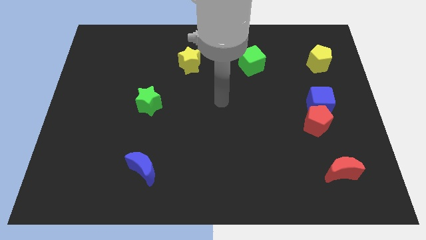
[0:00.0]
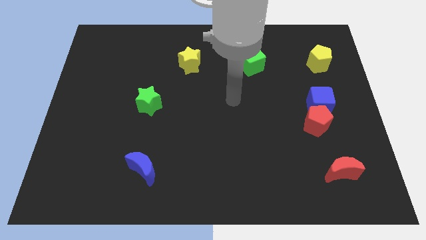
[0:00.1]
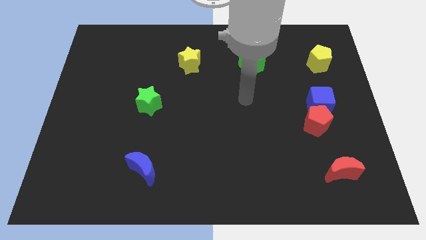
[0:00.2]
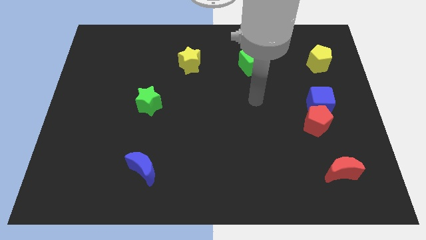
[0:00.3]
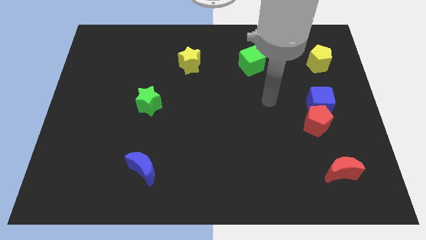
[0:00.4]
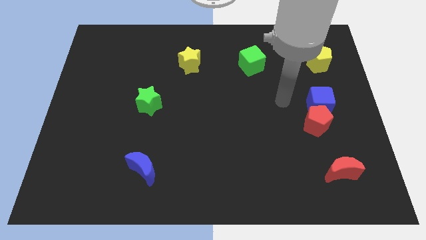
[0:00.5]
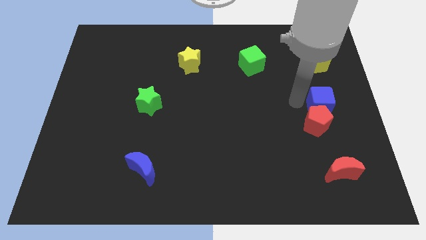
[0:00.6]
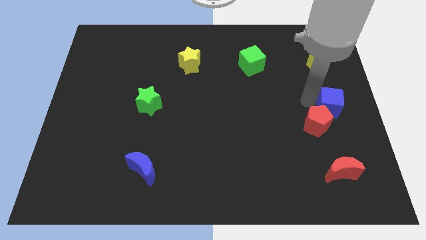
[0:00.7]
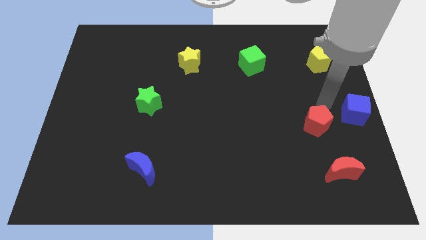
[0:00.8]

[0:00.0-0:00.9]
pull the red pentagon apart from the blue cube

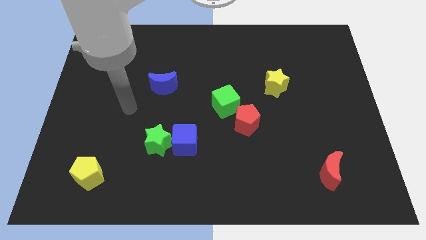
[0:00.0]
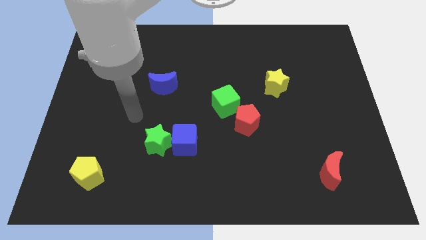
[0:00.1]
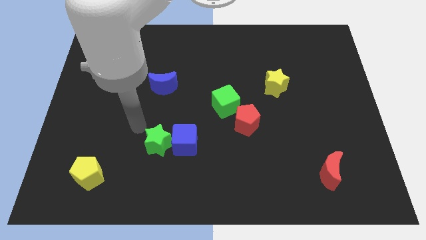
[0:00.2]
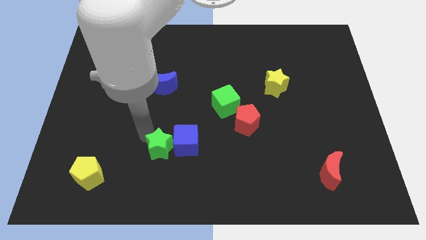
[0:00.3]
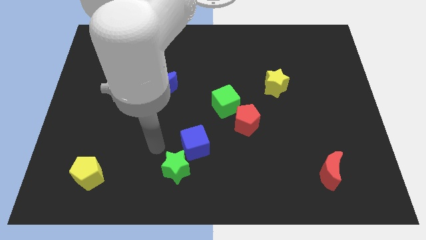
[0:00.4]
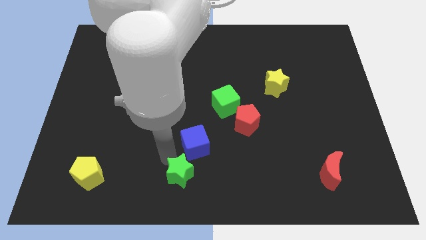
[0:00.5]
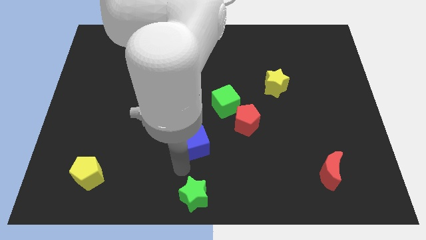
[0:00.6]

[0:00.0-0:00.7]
move the blue cube away from the green star

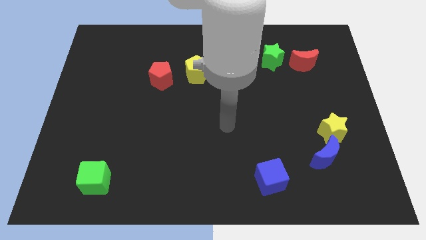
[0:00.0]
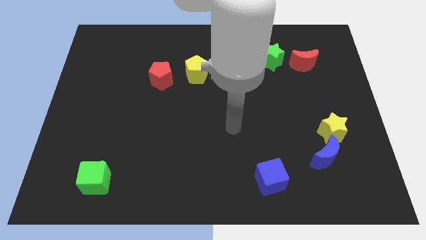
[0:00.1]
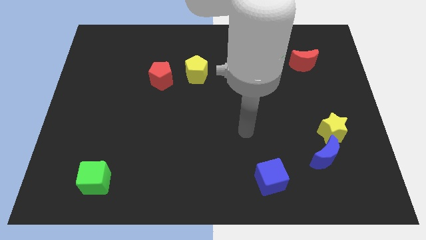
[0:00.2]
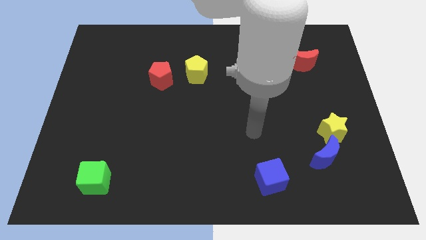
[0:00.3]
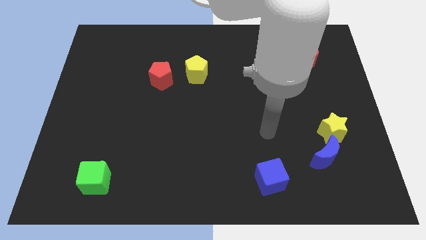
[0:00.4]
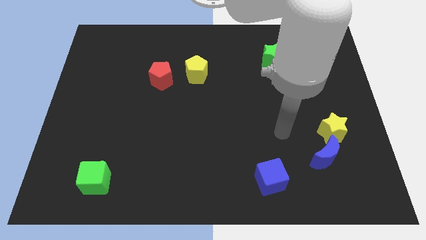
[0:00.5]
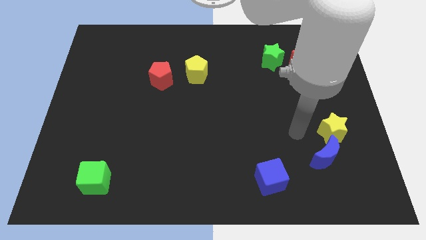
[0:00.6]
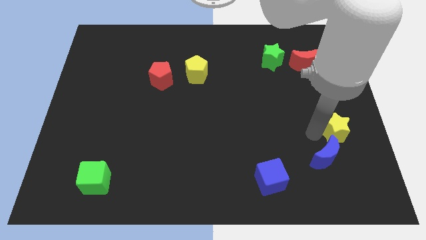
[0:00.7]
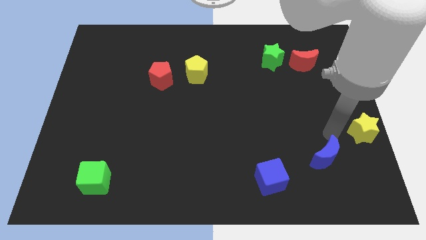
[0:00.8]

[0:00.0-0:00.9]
pull the blue moon apart from the yellow star

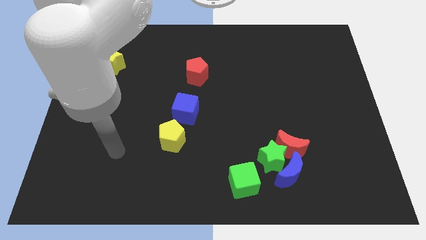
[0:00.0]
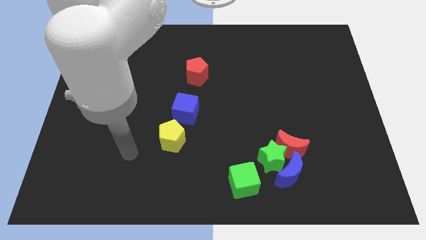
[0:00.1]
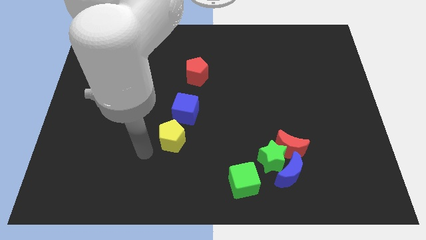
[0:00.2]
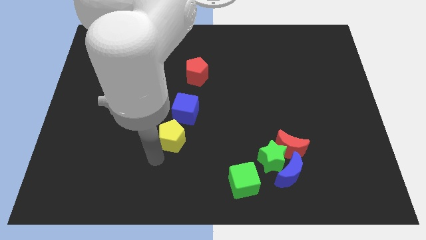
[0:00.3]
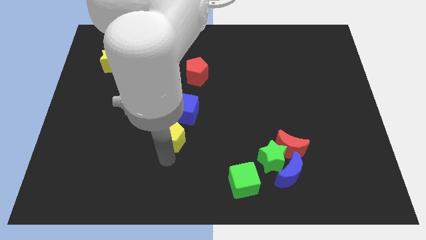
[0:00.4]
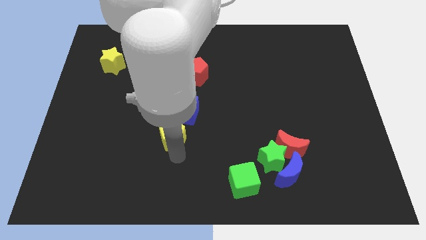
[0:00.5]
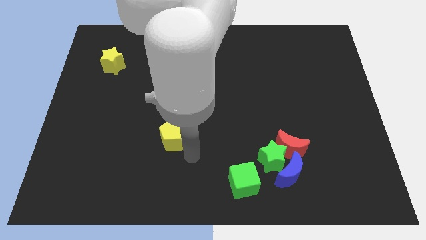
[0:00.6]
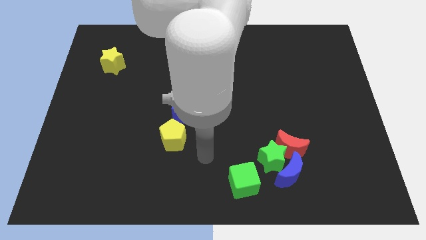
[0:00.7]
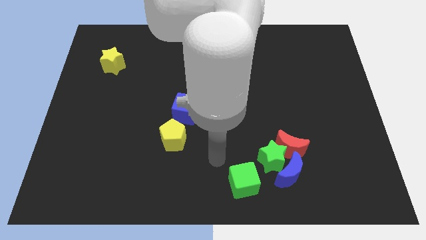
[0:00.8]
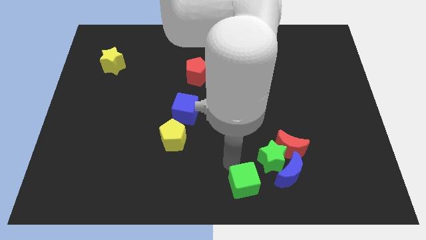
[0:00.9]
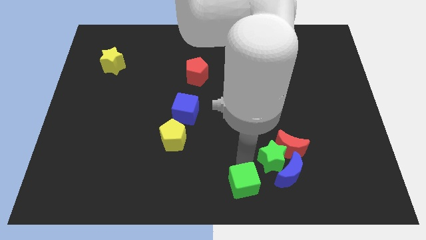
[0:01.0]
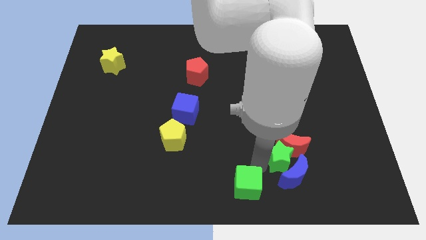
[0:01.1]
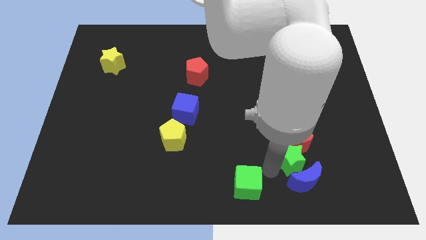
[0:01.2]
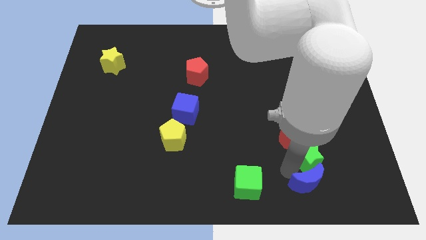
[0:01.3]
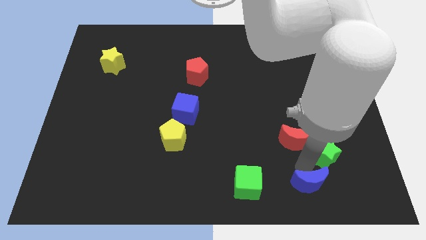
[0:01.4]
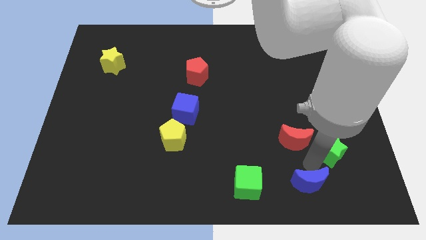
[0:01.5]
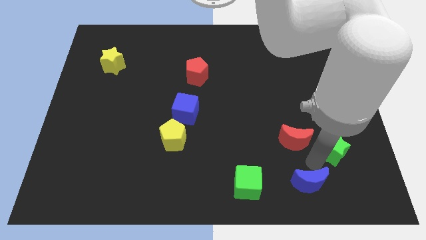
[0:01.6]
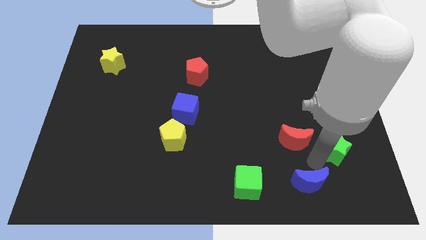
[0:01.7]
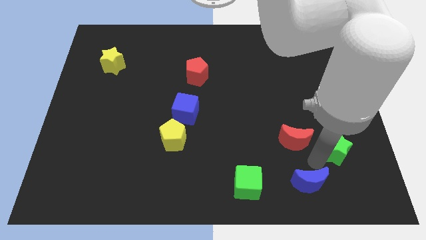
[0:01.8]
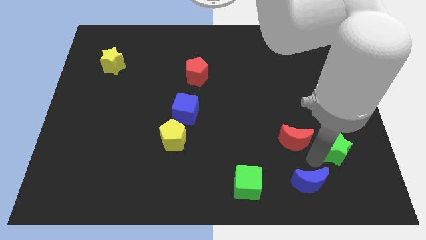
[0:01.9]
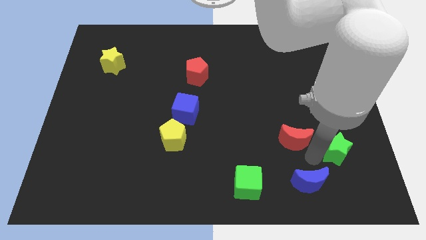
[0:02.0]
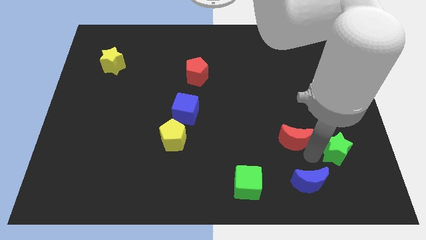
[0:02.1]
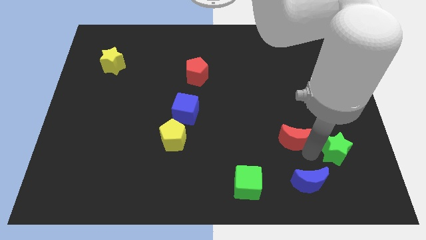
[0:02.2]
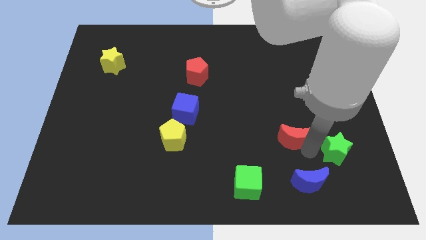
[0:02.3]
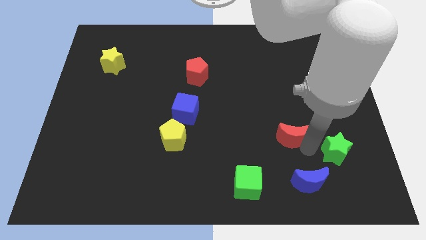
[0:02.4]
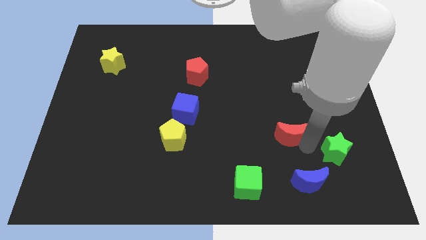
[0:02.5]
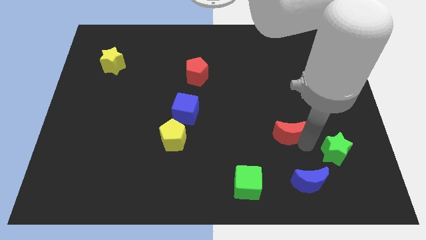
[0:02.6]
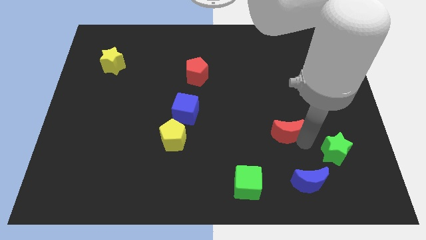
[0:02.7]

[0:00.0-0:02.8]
separate the red moon from the green star and blue moon

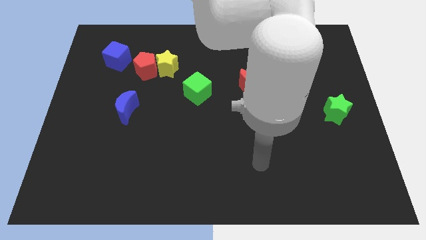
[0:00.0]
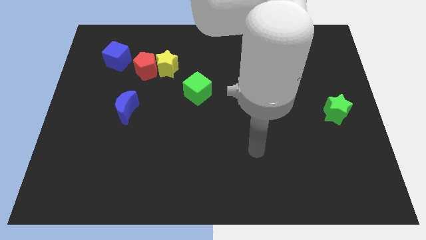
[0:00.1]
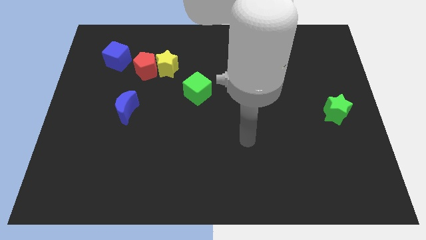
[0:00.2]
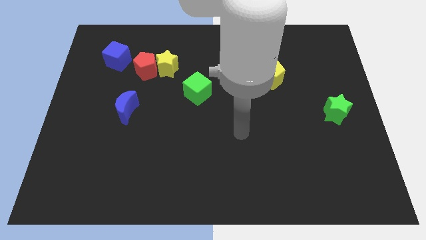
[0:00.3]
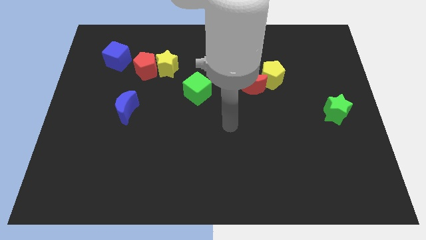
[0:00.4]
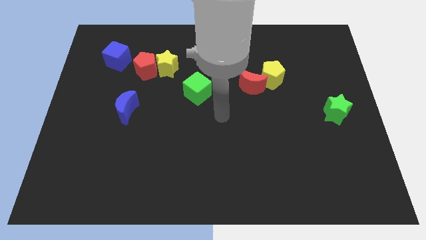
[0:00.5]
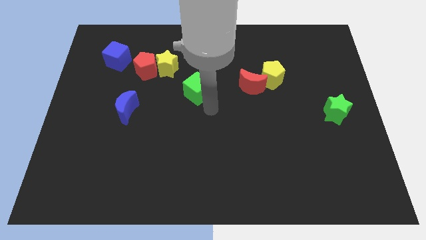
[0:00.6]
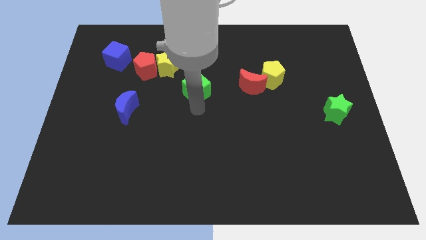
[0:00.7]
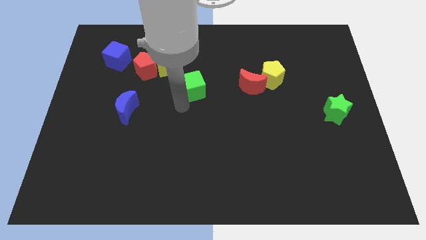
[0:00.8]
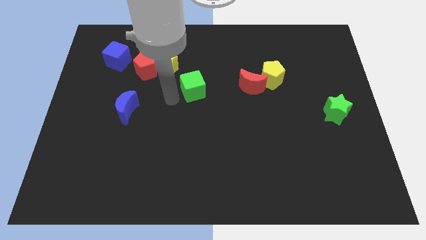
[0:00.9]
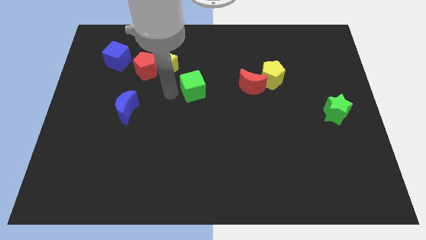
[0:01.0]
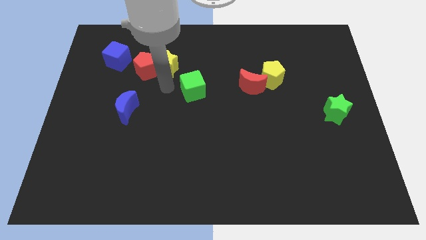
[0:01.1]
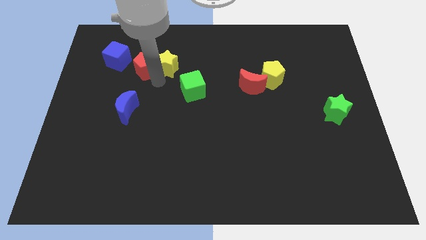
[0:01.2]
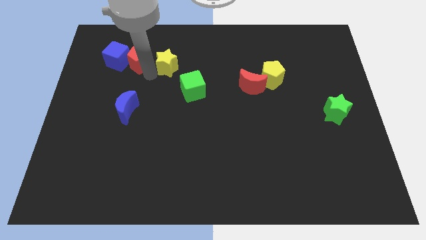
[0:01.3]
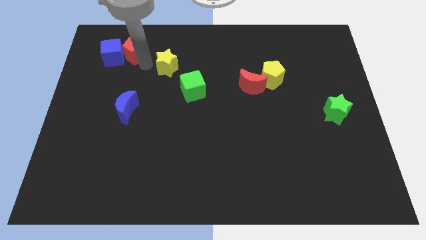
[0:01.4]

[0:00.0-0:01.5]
separate the yellow star from the red pentagon

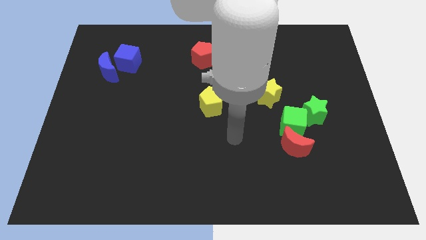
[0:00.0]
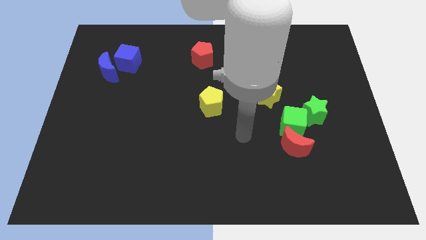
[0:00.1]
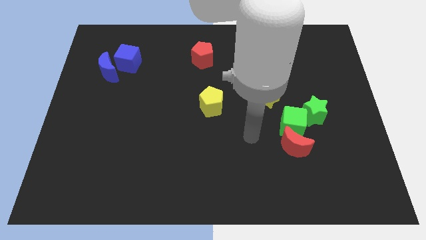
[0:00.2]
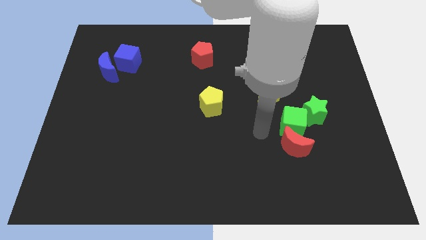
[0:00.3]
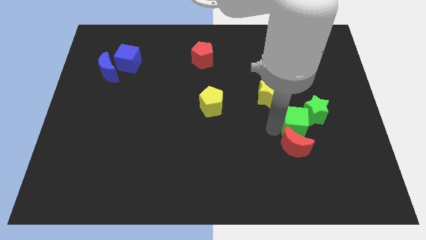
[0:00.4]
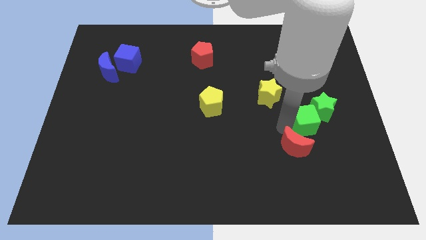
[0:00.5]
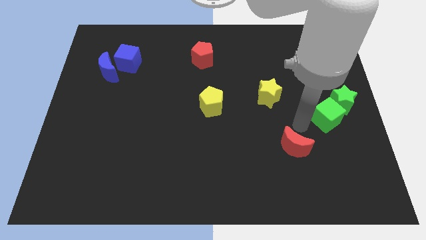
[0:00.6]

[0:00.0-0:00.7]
move the red moon away from the green cube

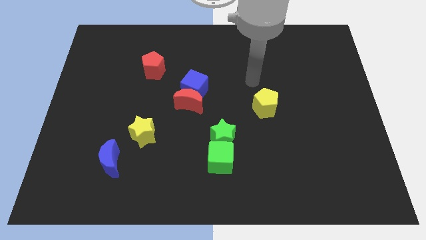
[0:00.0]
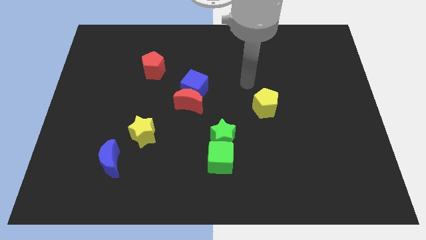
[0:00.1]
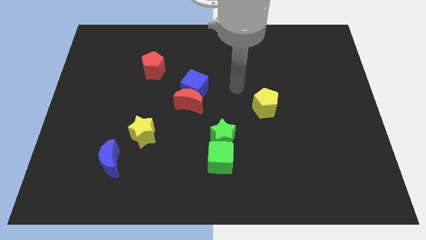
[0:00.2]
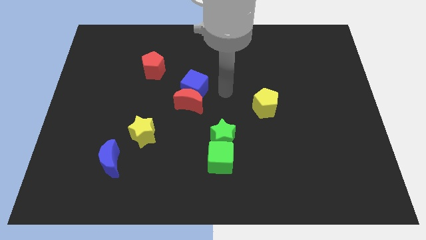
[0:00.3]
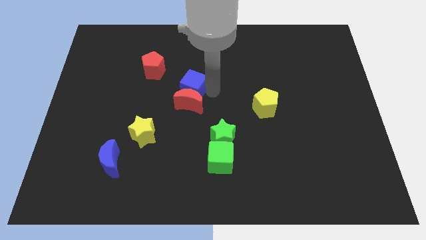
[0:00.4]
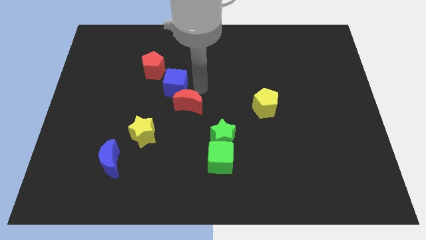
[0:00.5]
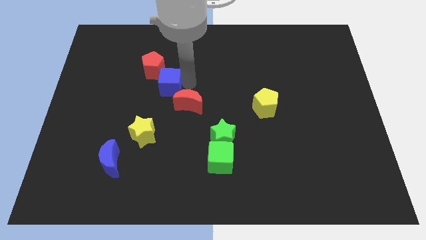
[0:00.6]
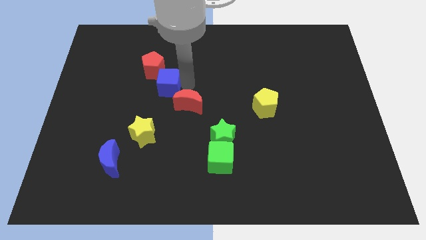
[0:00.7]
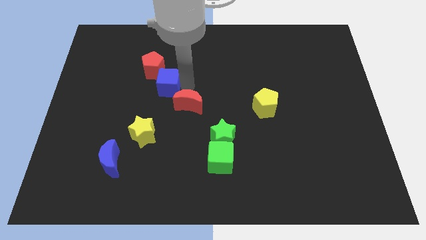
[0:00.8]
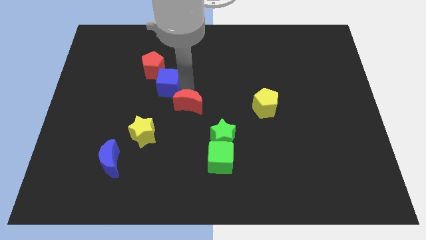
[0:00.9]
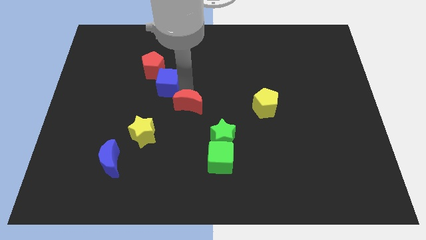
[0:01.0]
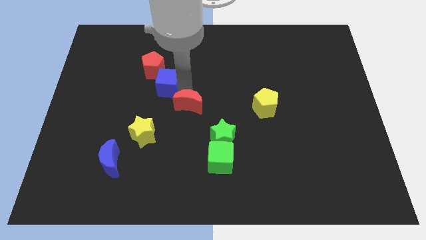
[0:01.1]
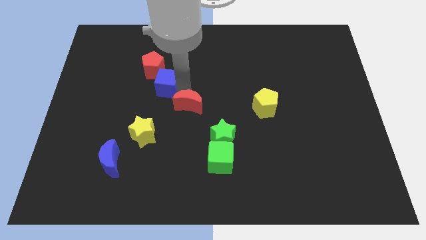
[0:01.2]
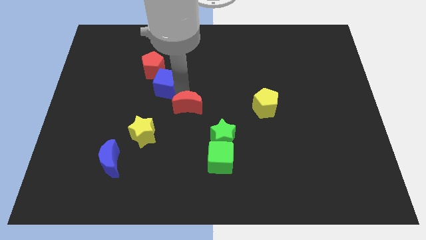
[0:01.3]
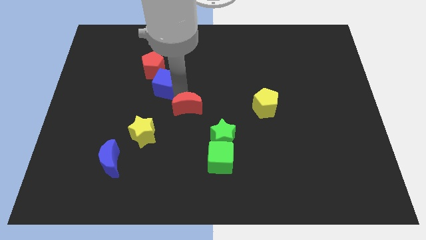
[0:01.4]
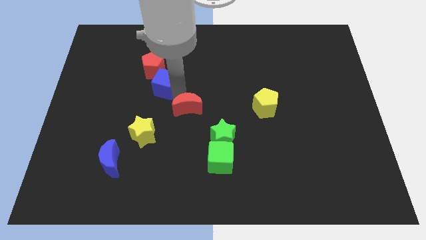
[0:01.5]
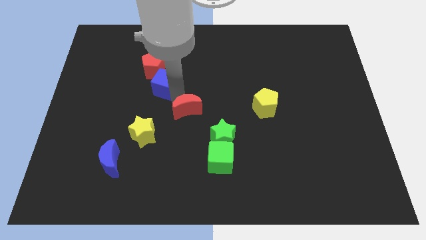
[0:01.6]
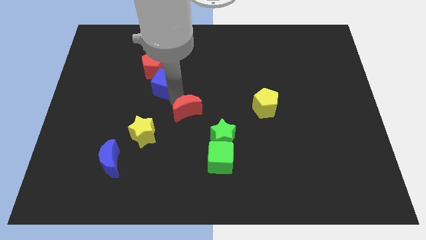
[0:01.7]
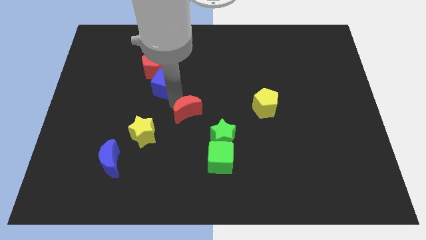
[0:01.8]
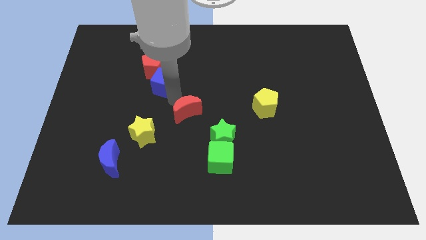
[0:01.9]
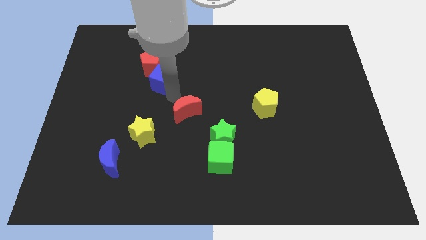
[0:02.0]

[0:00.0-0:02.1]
move the red moon away from the blue cube
